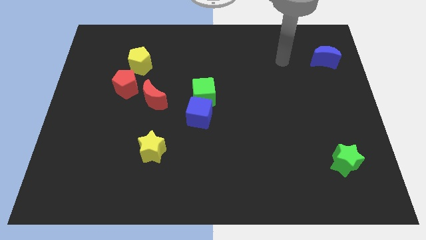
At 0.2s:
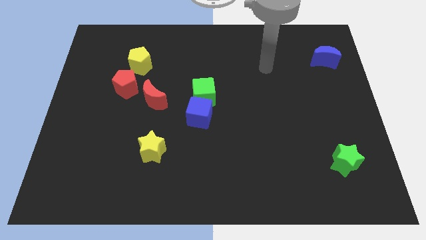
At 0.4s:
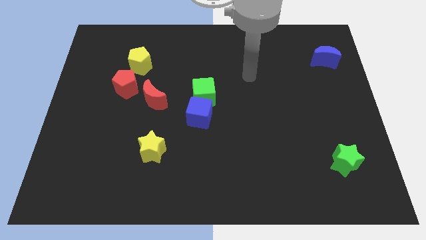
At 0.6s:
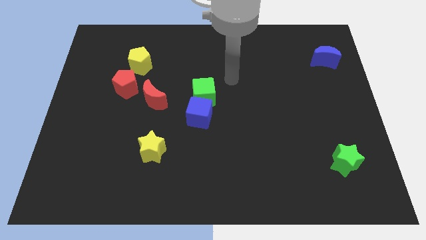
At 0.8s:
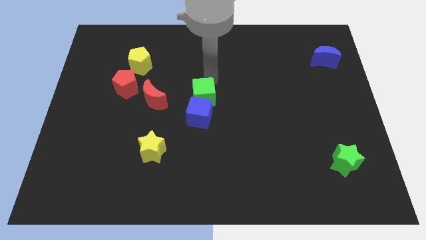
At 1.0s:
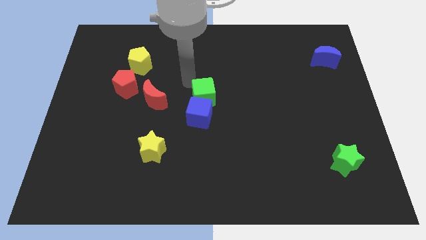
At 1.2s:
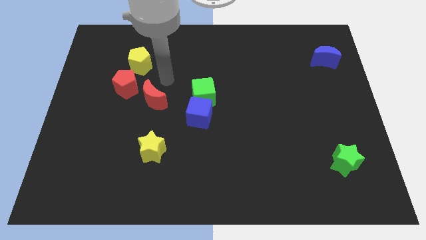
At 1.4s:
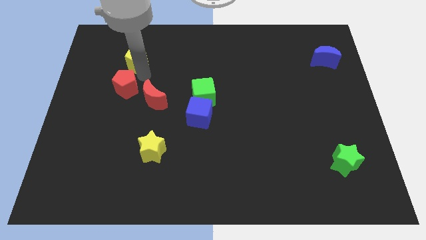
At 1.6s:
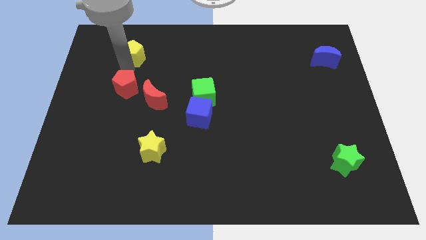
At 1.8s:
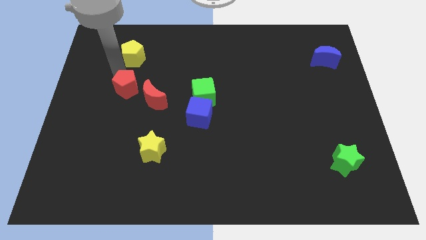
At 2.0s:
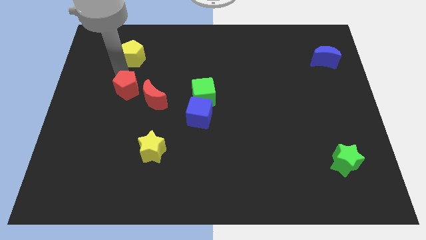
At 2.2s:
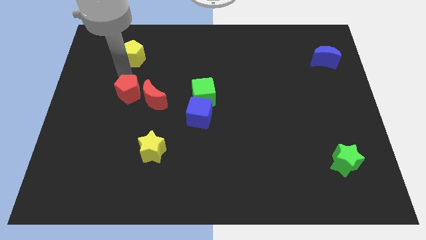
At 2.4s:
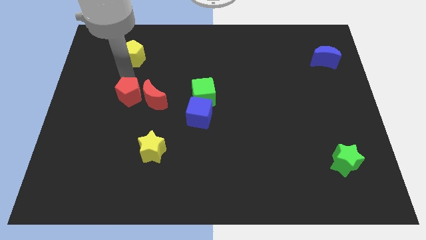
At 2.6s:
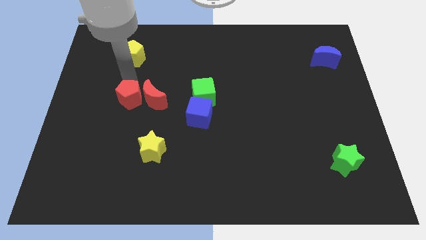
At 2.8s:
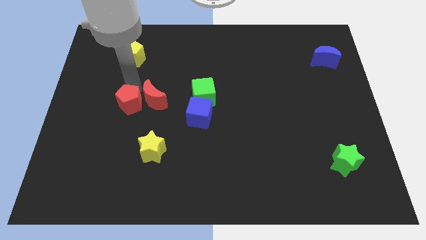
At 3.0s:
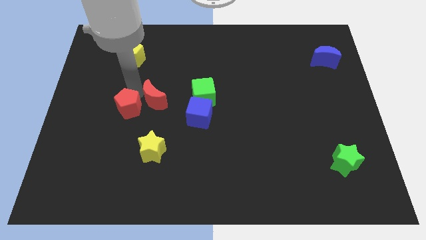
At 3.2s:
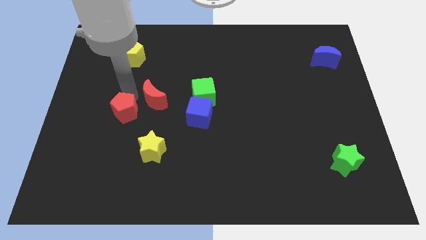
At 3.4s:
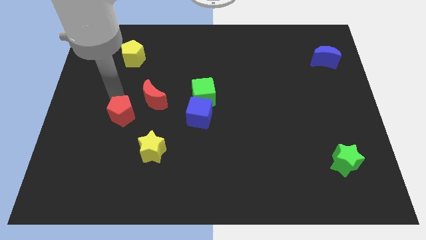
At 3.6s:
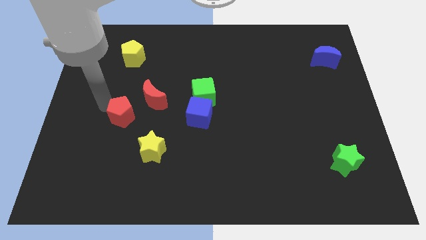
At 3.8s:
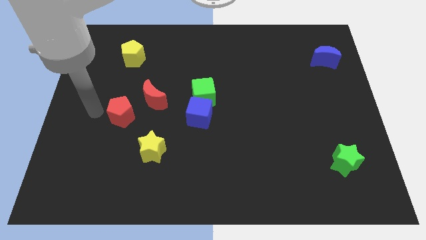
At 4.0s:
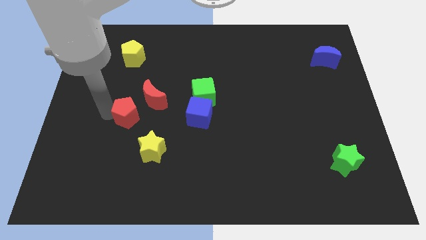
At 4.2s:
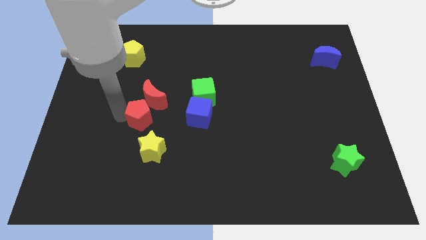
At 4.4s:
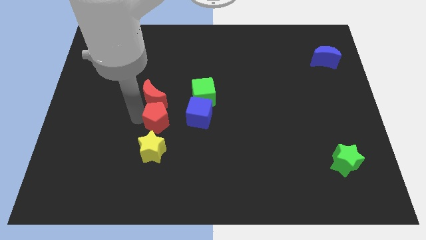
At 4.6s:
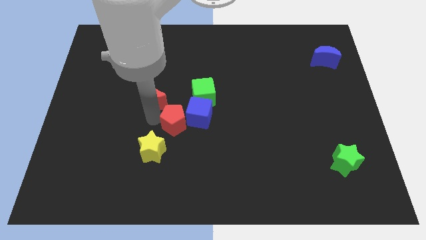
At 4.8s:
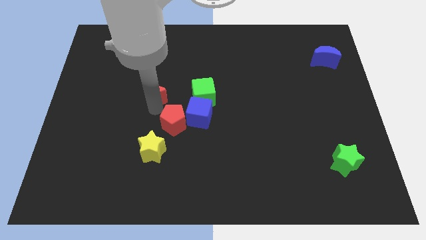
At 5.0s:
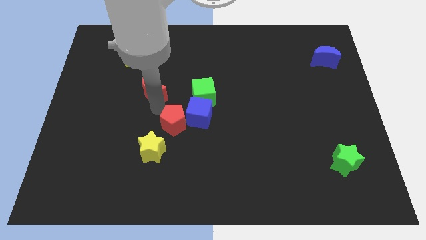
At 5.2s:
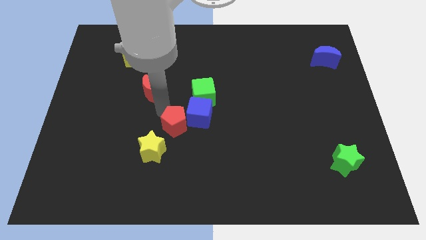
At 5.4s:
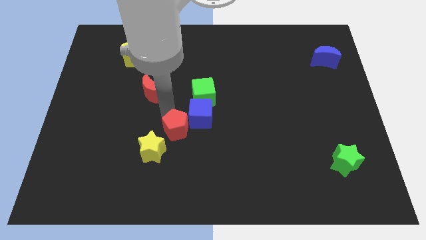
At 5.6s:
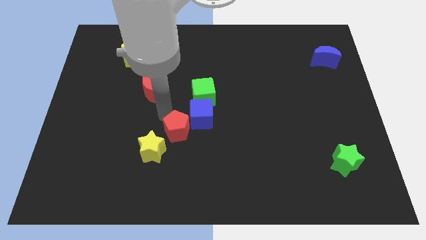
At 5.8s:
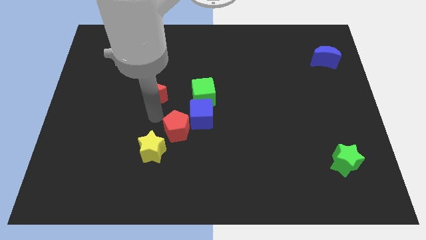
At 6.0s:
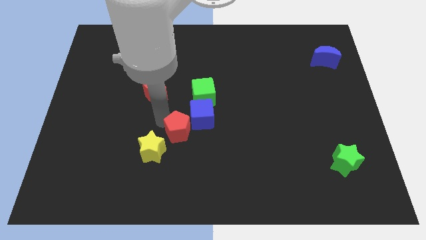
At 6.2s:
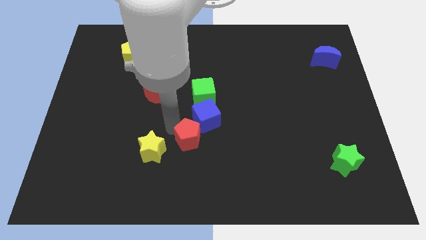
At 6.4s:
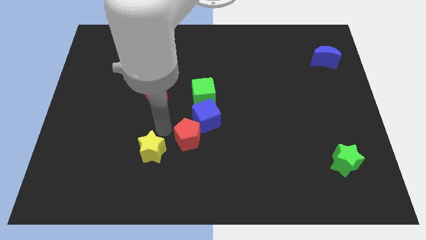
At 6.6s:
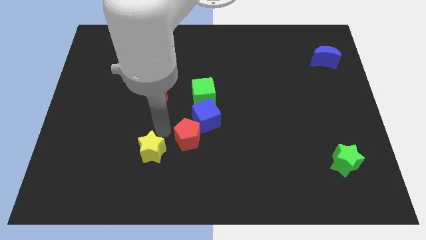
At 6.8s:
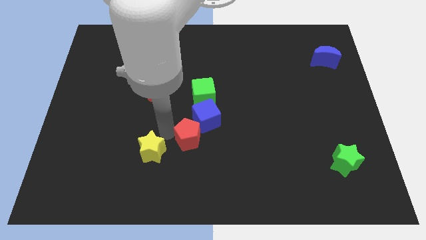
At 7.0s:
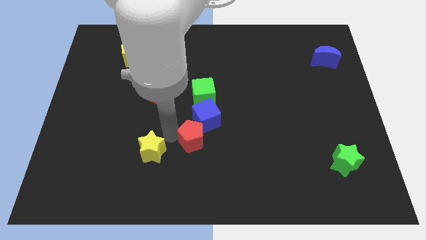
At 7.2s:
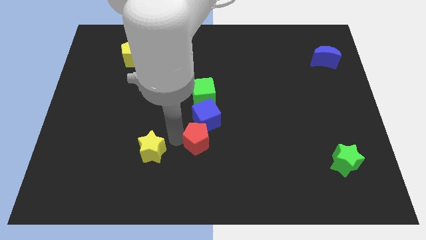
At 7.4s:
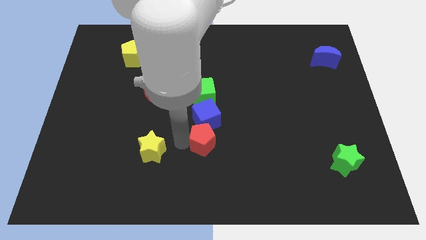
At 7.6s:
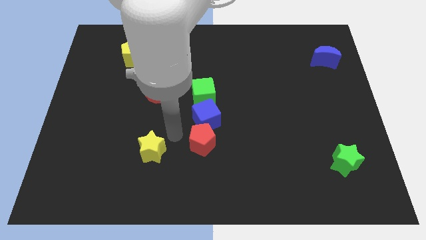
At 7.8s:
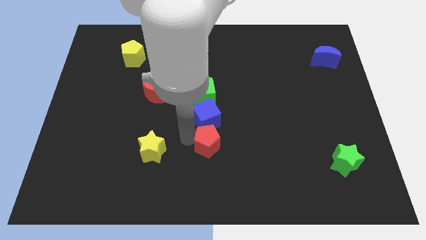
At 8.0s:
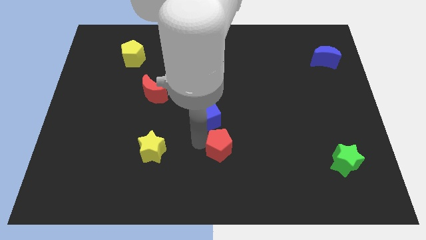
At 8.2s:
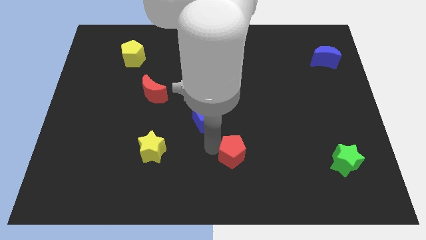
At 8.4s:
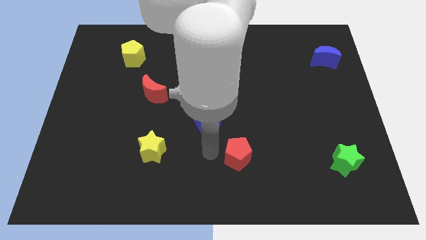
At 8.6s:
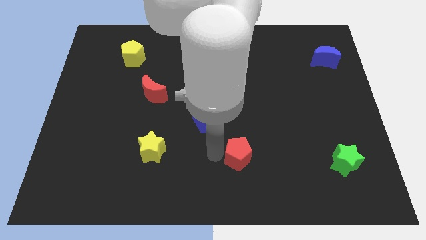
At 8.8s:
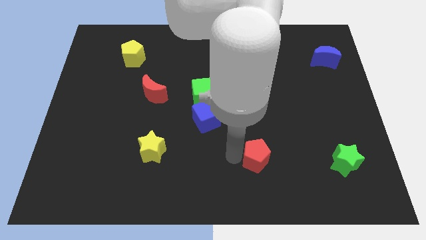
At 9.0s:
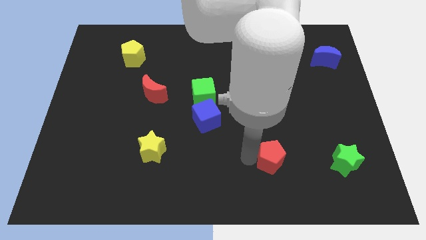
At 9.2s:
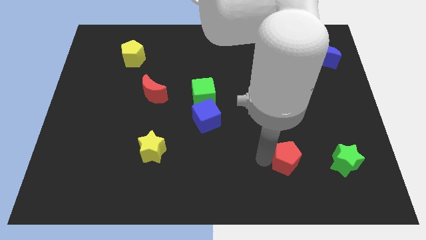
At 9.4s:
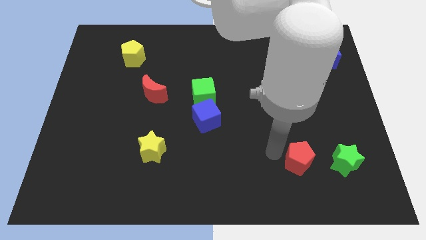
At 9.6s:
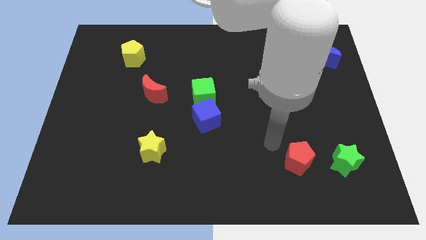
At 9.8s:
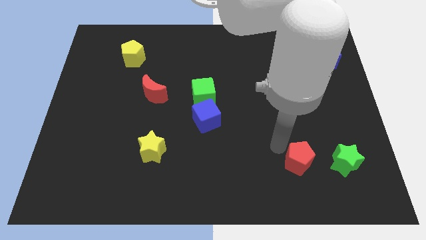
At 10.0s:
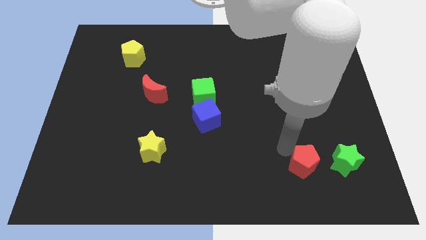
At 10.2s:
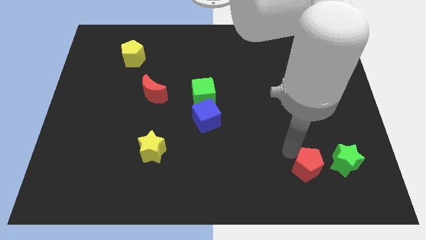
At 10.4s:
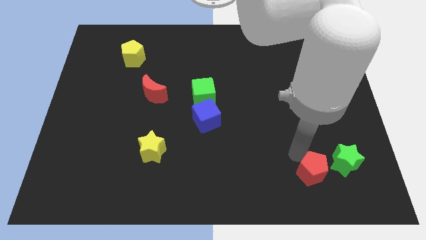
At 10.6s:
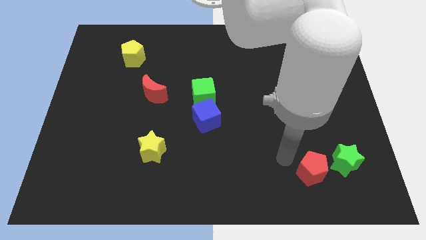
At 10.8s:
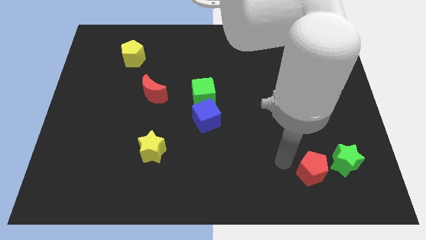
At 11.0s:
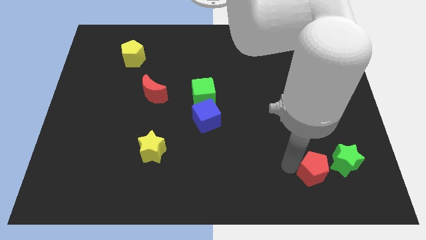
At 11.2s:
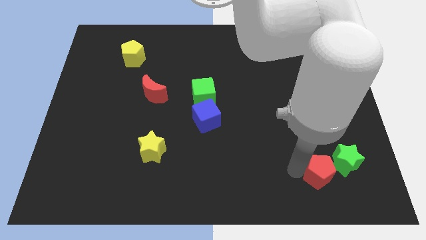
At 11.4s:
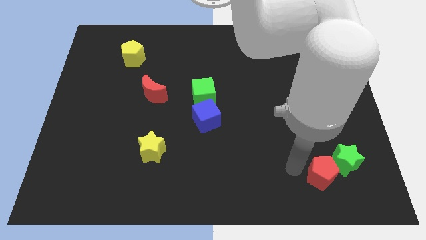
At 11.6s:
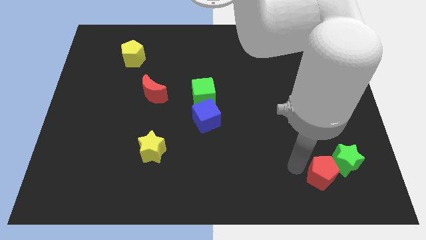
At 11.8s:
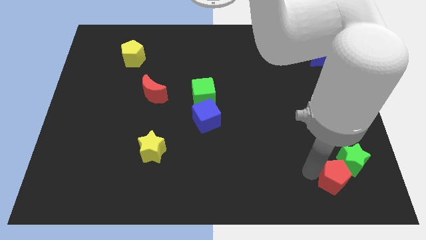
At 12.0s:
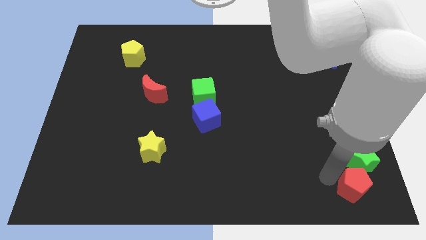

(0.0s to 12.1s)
slide the red pentagon to the bottom right corner

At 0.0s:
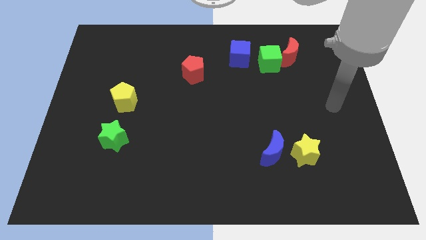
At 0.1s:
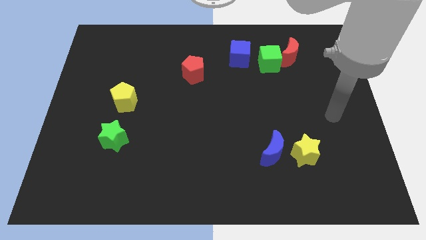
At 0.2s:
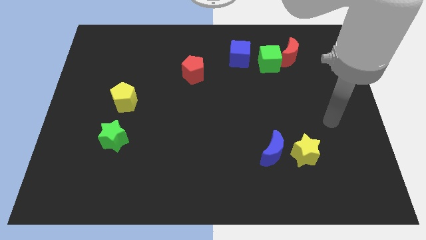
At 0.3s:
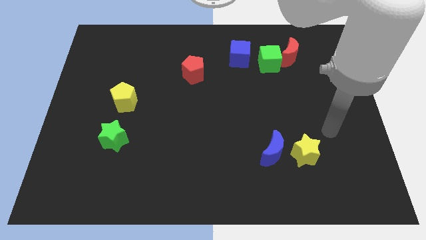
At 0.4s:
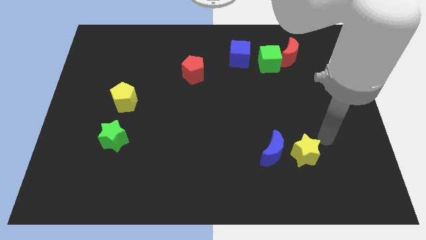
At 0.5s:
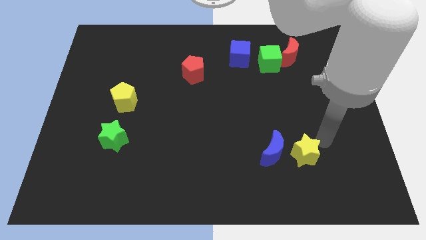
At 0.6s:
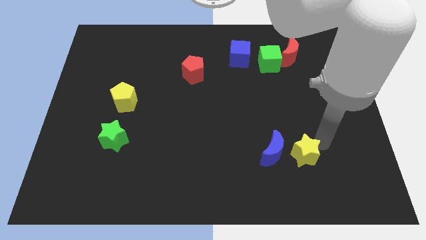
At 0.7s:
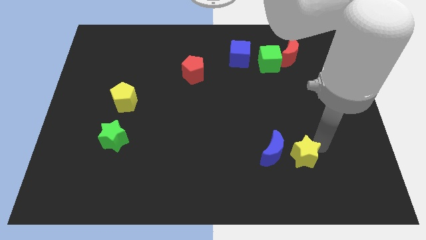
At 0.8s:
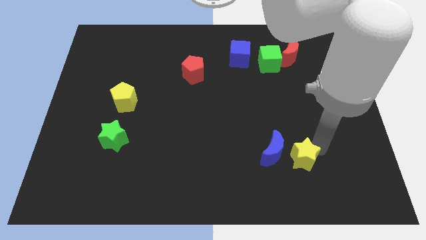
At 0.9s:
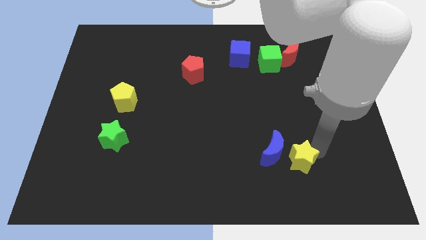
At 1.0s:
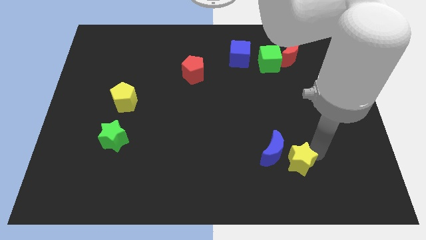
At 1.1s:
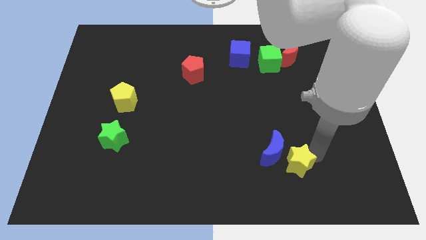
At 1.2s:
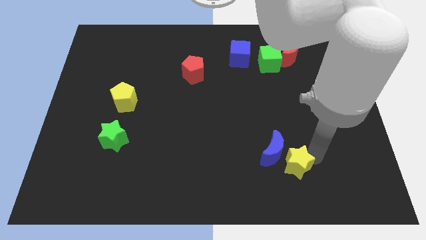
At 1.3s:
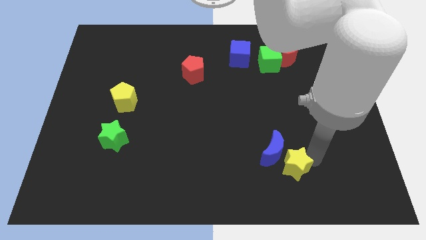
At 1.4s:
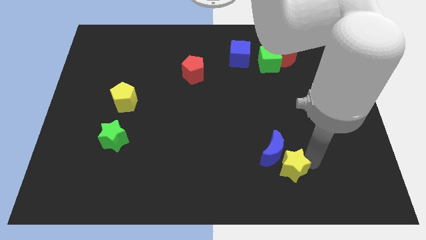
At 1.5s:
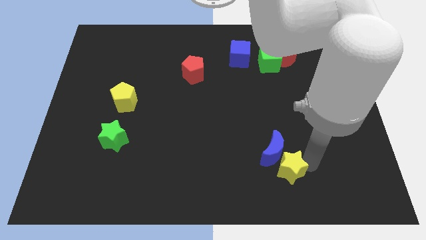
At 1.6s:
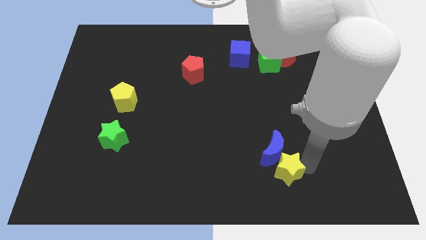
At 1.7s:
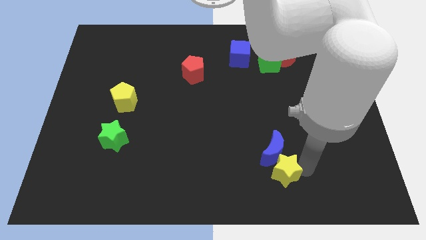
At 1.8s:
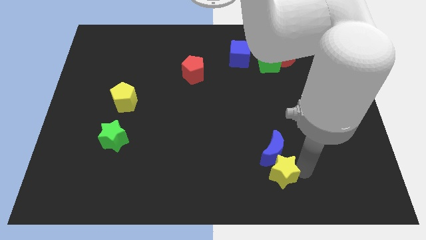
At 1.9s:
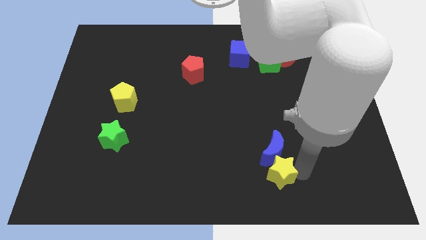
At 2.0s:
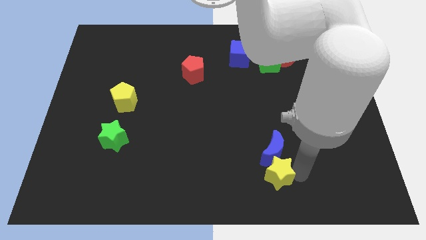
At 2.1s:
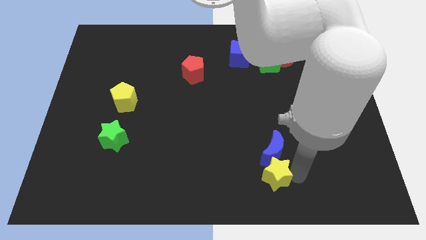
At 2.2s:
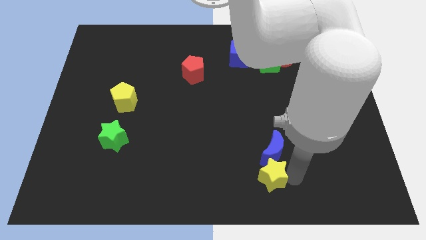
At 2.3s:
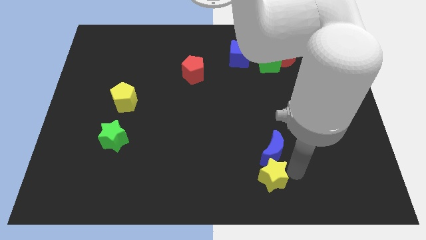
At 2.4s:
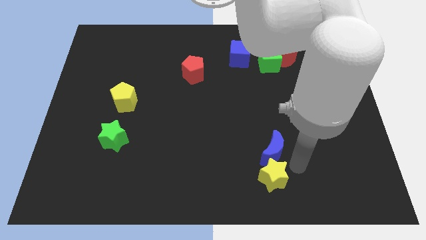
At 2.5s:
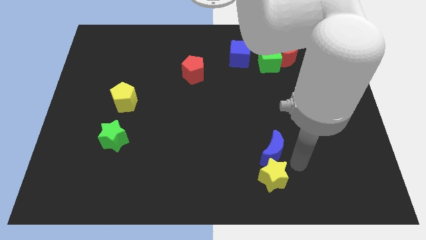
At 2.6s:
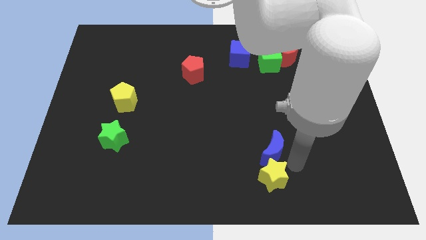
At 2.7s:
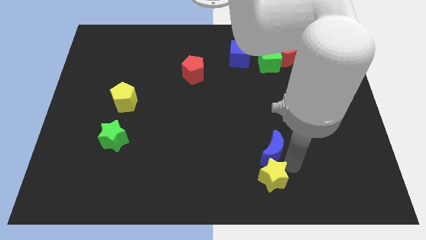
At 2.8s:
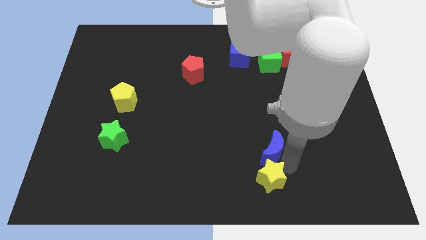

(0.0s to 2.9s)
move the yellow star to the bottom
